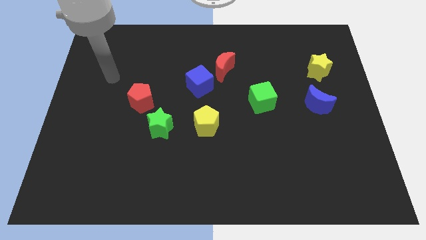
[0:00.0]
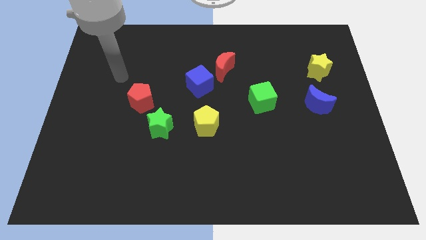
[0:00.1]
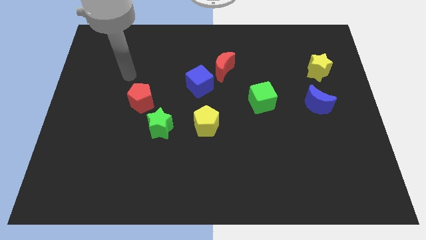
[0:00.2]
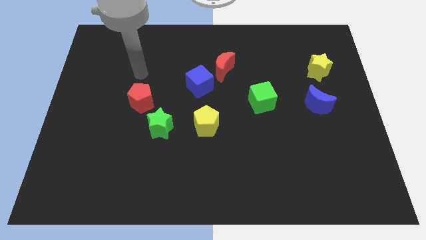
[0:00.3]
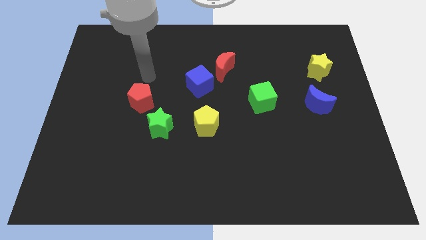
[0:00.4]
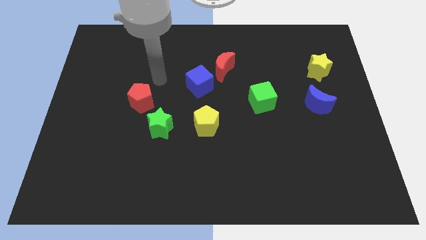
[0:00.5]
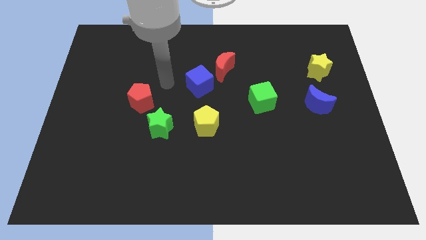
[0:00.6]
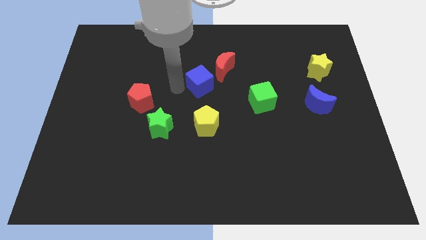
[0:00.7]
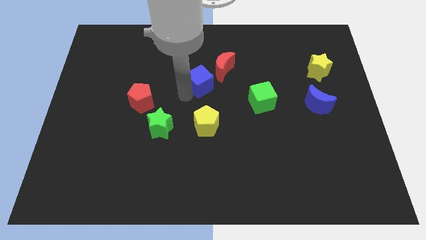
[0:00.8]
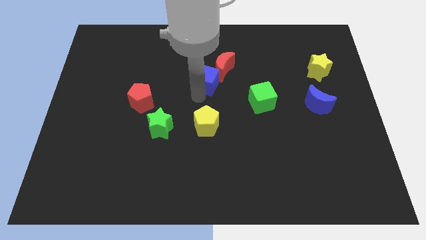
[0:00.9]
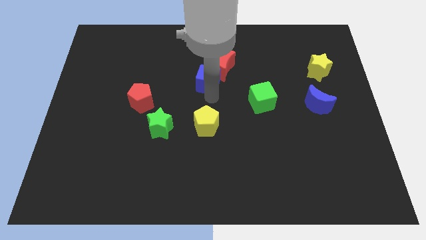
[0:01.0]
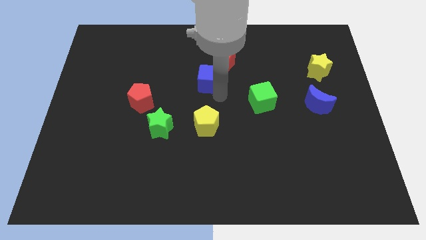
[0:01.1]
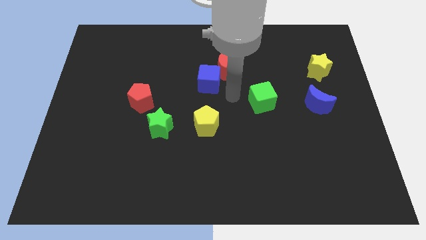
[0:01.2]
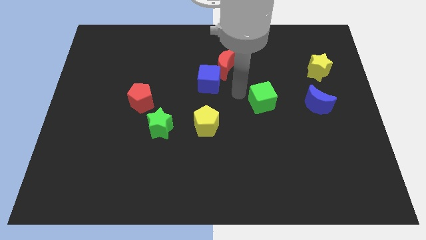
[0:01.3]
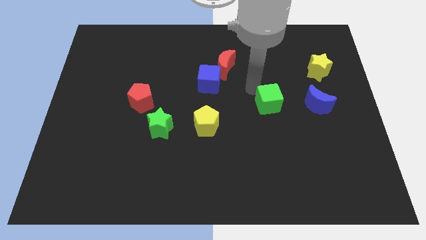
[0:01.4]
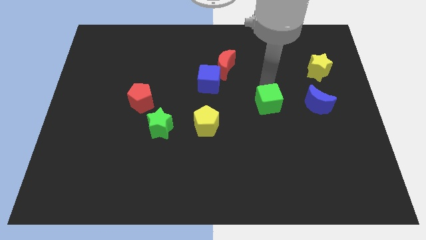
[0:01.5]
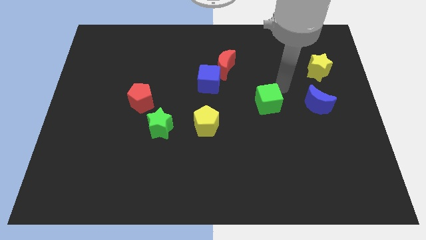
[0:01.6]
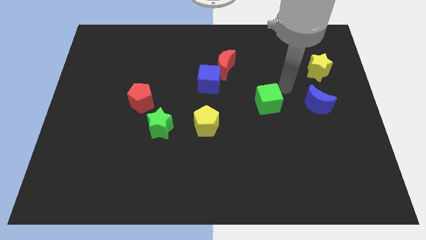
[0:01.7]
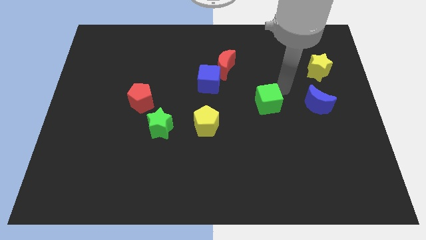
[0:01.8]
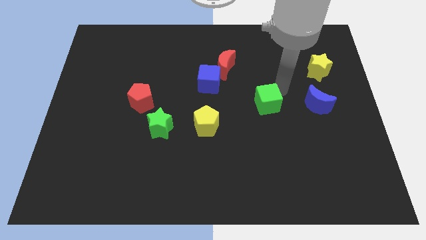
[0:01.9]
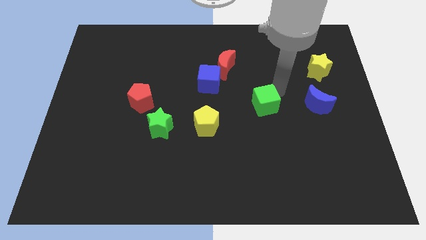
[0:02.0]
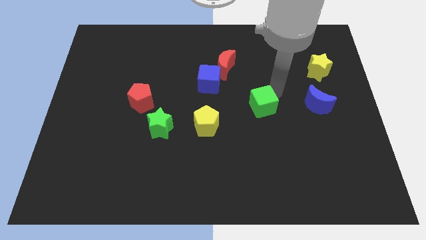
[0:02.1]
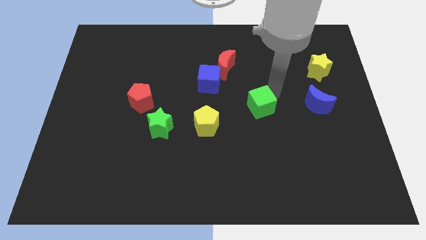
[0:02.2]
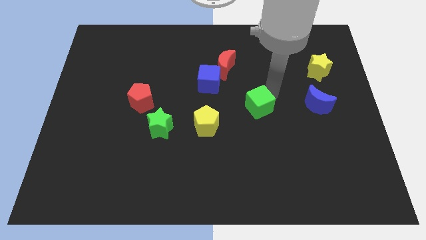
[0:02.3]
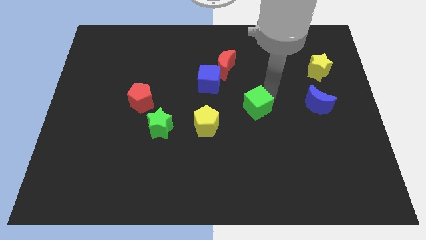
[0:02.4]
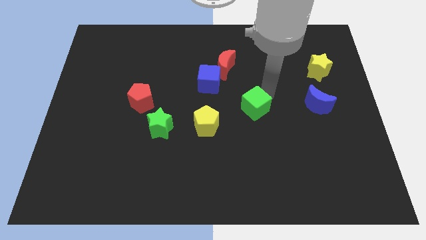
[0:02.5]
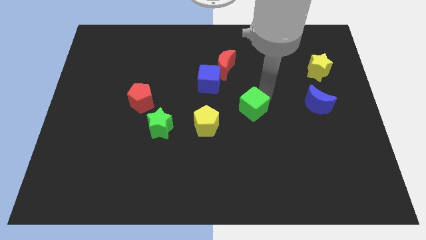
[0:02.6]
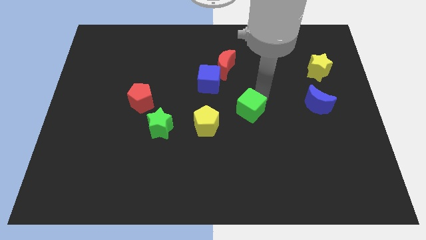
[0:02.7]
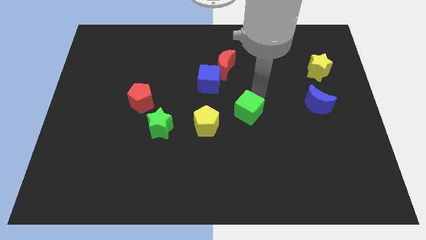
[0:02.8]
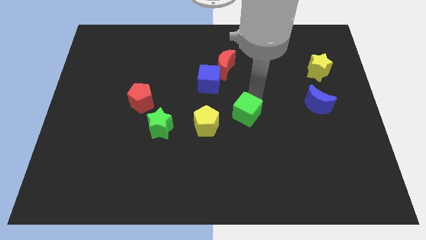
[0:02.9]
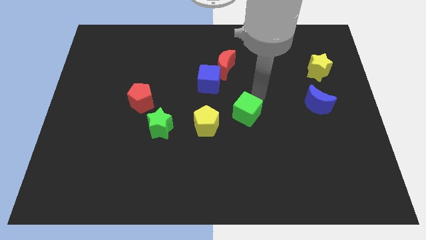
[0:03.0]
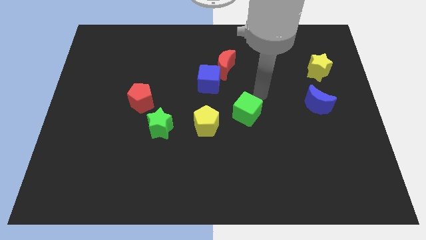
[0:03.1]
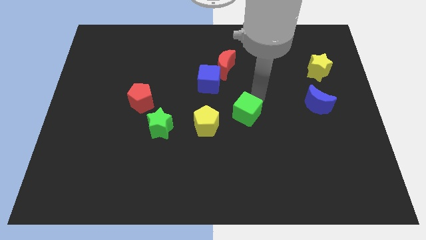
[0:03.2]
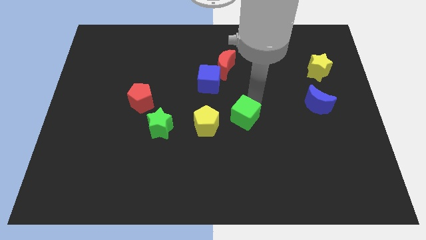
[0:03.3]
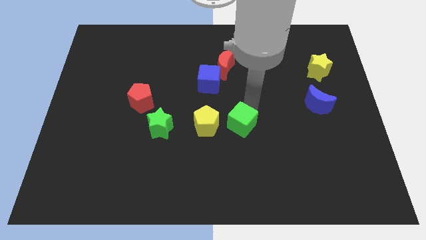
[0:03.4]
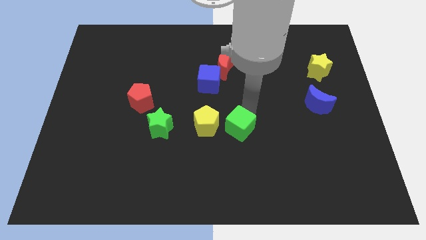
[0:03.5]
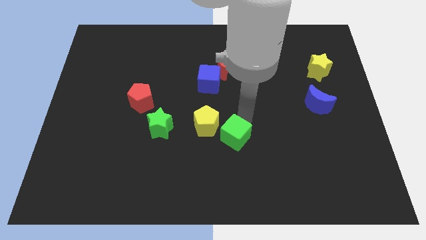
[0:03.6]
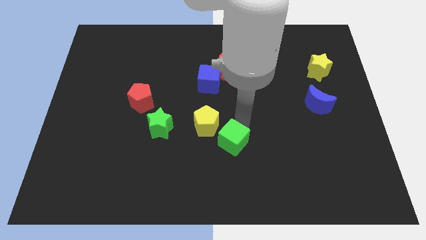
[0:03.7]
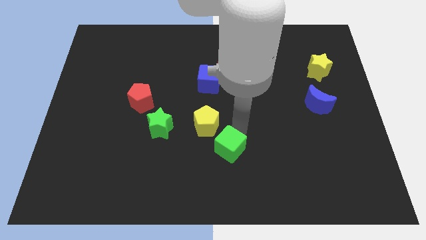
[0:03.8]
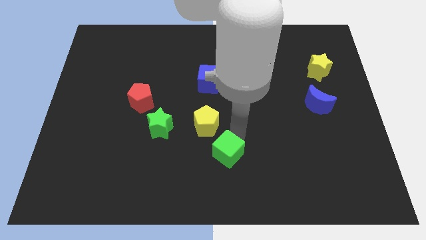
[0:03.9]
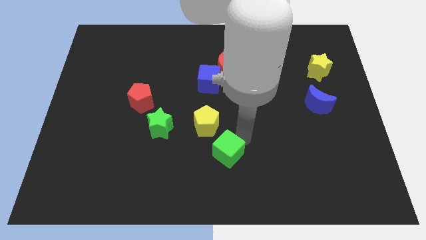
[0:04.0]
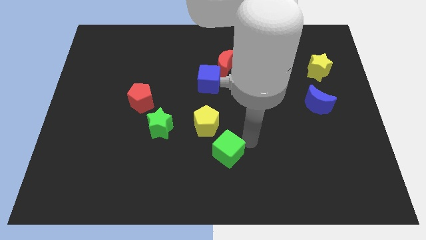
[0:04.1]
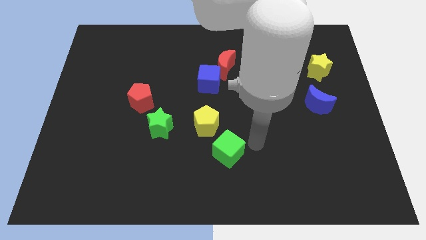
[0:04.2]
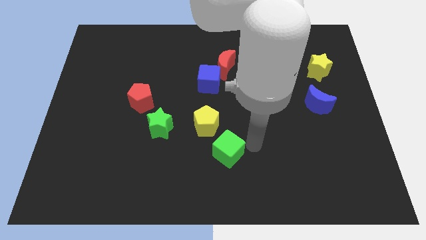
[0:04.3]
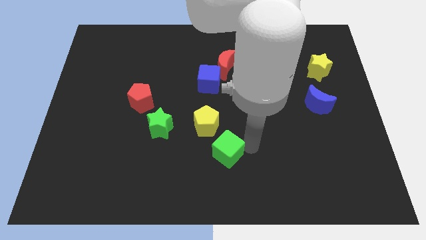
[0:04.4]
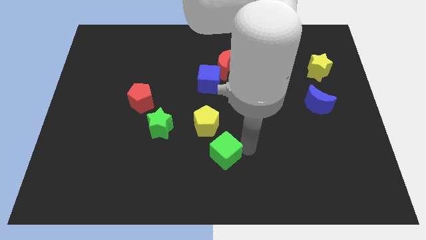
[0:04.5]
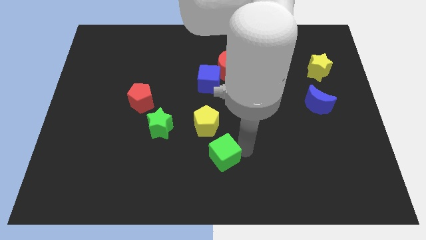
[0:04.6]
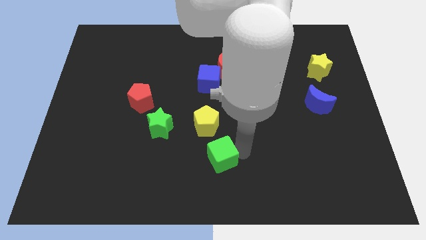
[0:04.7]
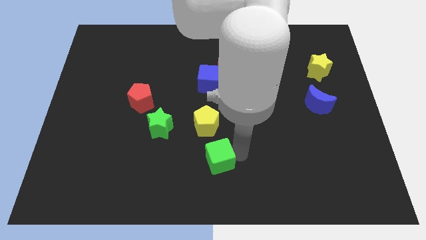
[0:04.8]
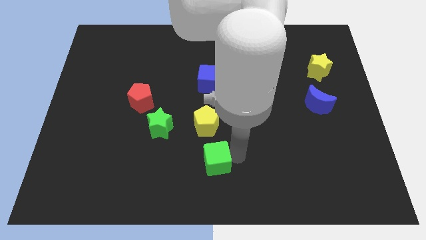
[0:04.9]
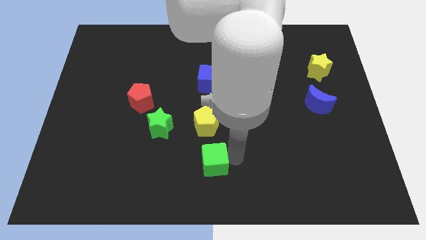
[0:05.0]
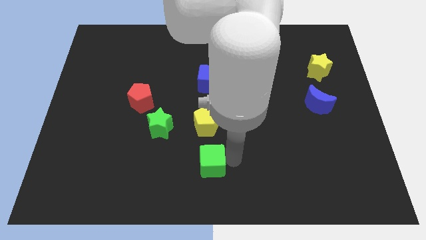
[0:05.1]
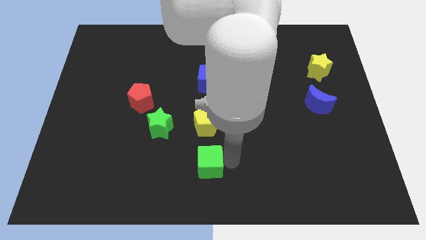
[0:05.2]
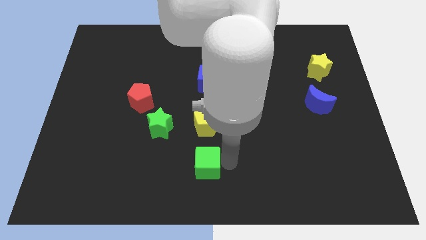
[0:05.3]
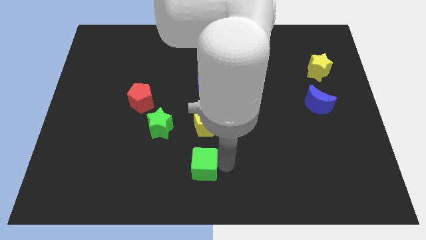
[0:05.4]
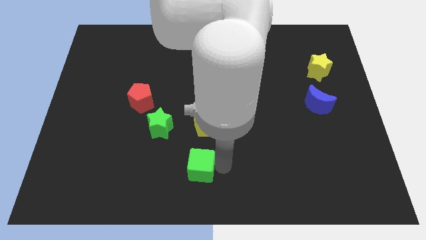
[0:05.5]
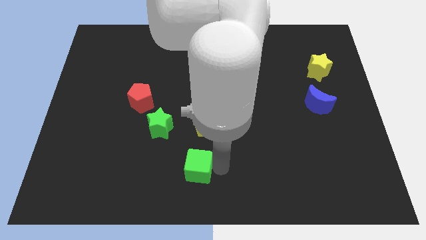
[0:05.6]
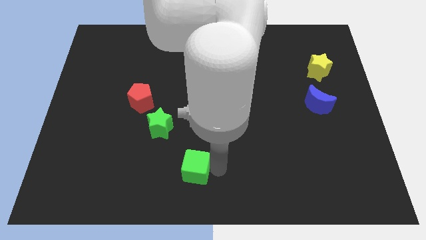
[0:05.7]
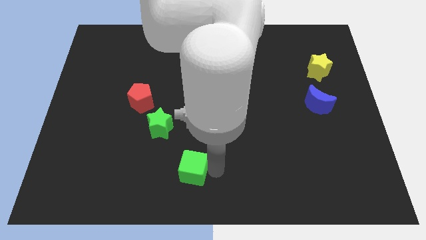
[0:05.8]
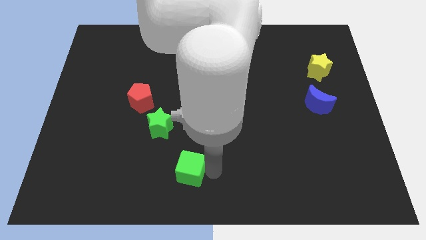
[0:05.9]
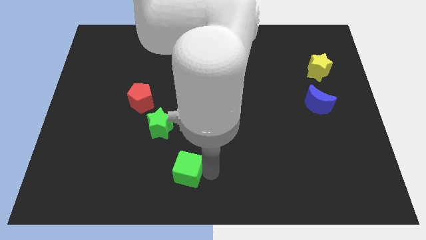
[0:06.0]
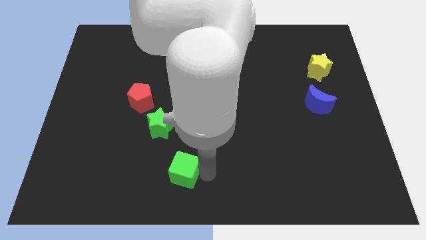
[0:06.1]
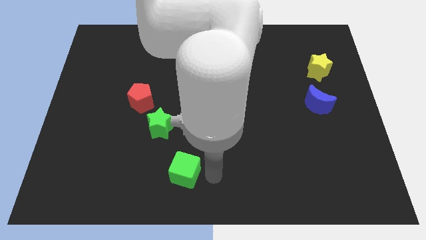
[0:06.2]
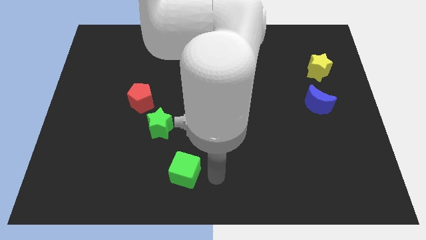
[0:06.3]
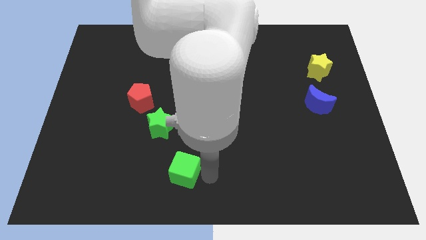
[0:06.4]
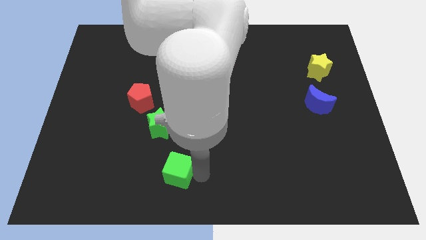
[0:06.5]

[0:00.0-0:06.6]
push the green cube to the bottom of the green star
